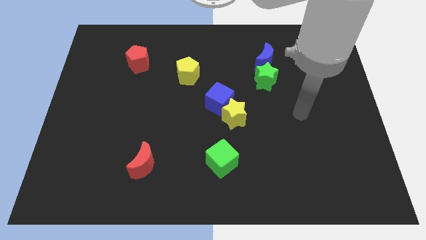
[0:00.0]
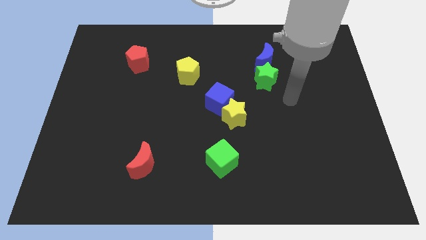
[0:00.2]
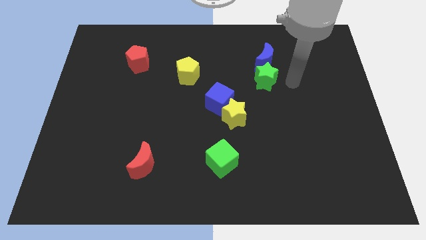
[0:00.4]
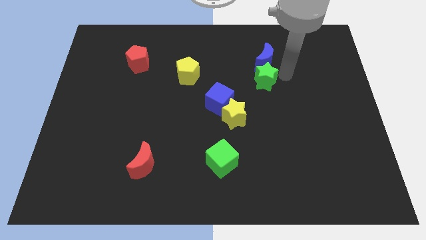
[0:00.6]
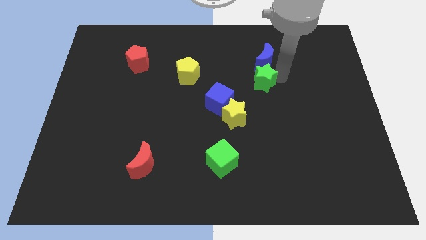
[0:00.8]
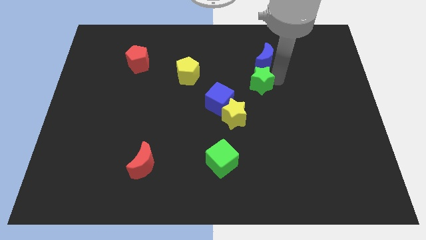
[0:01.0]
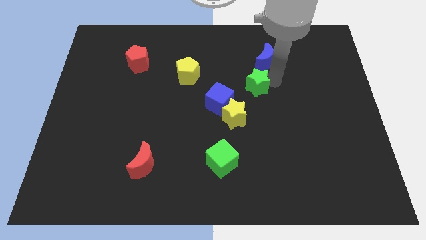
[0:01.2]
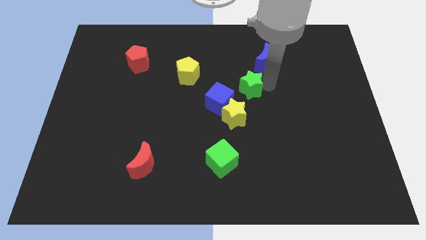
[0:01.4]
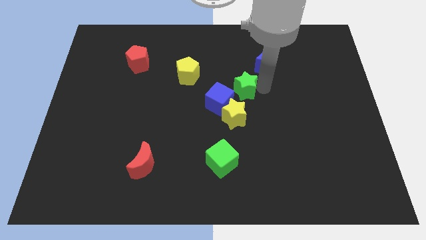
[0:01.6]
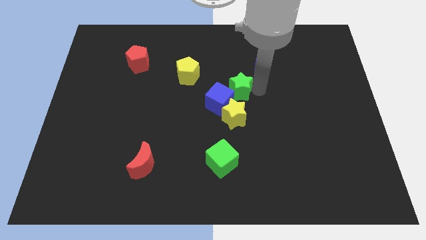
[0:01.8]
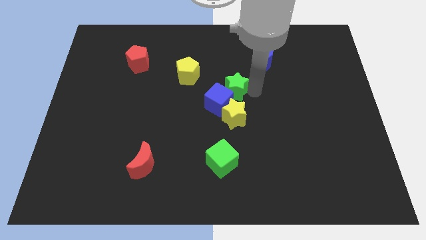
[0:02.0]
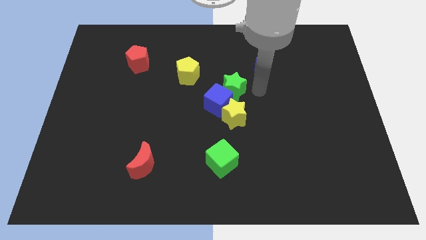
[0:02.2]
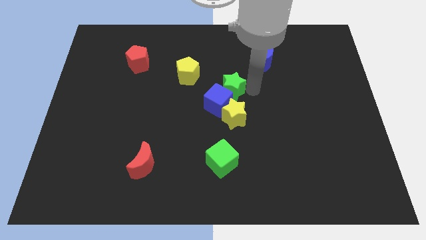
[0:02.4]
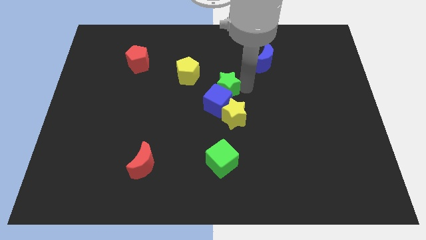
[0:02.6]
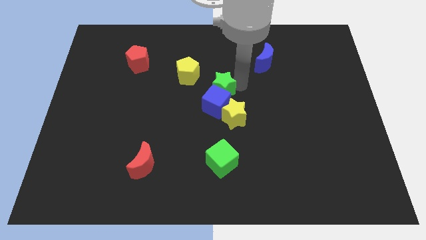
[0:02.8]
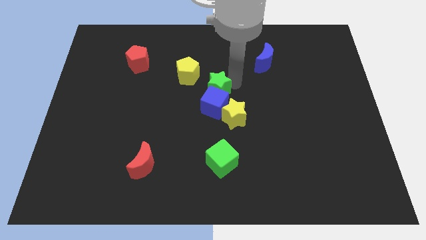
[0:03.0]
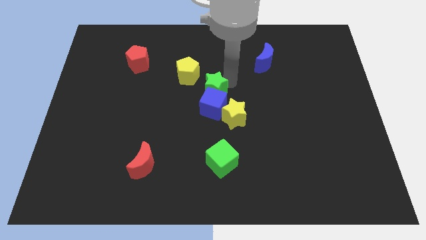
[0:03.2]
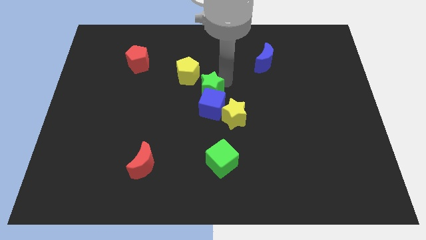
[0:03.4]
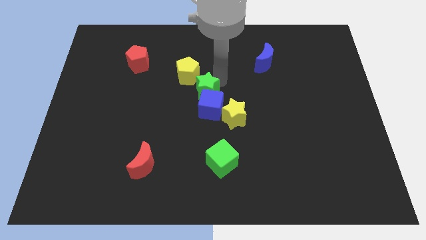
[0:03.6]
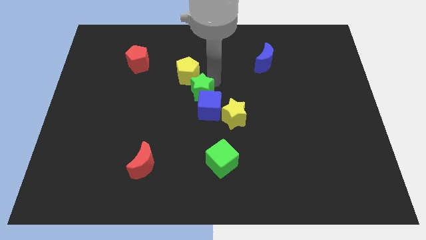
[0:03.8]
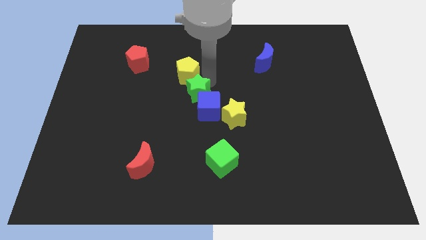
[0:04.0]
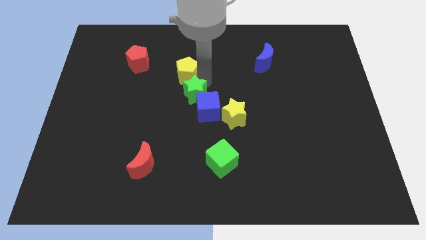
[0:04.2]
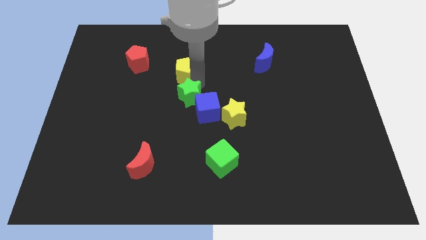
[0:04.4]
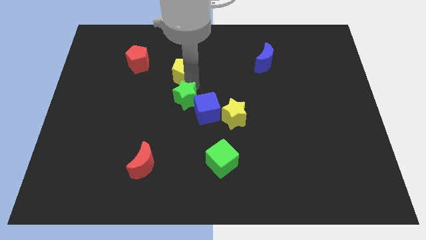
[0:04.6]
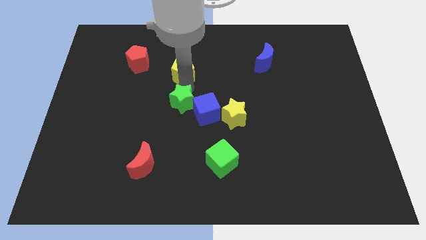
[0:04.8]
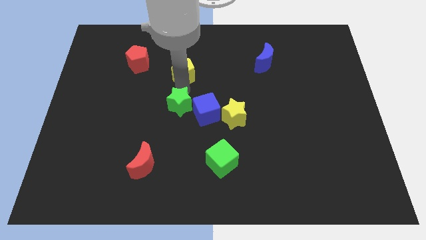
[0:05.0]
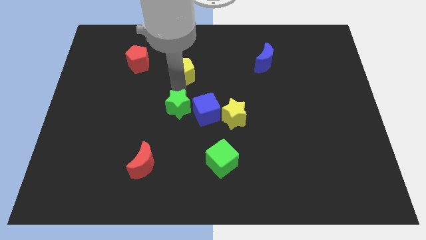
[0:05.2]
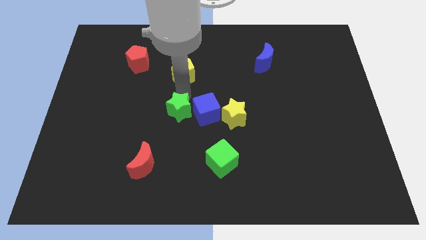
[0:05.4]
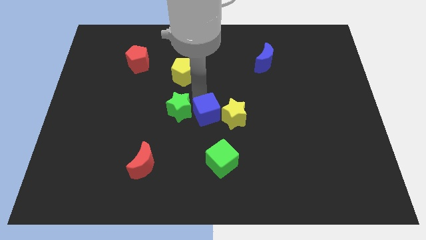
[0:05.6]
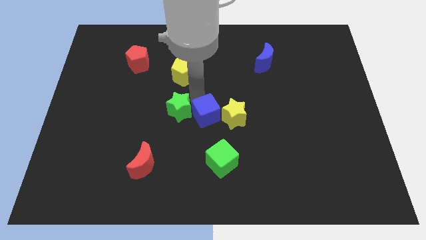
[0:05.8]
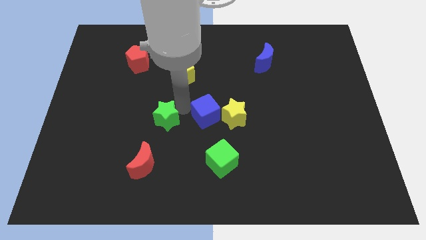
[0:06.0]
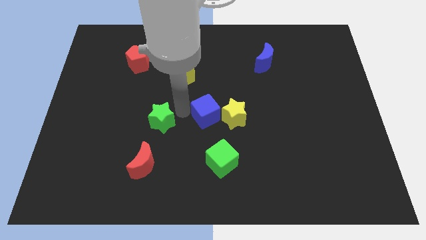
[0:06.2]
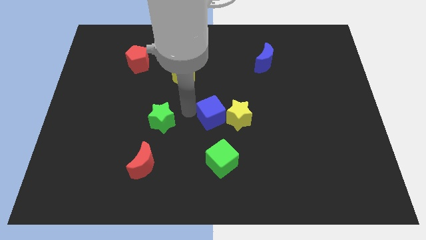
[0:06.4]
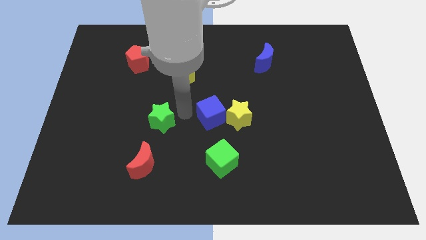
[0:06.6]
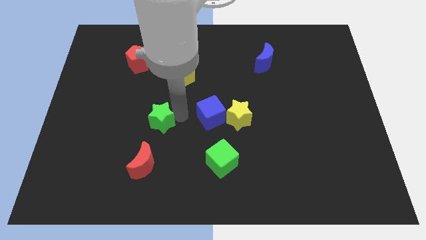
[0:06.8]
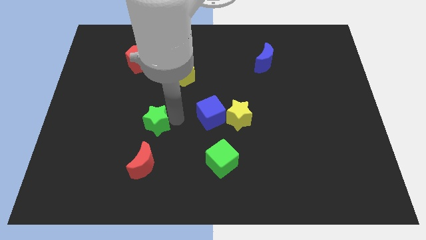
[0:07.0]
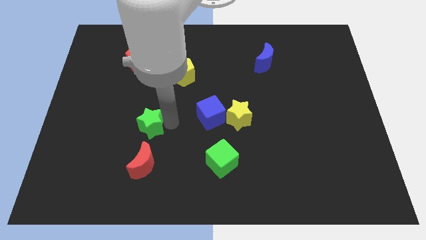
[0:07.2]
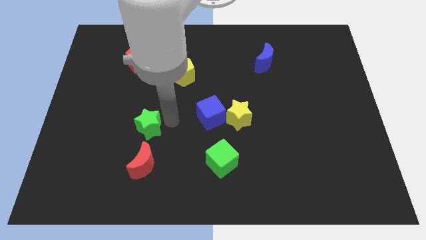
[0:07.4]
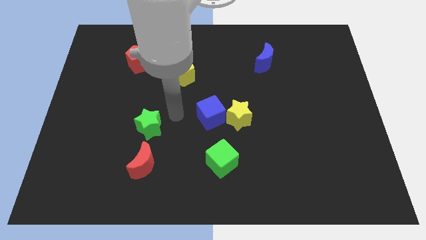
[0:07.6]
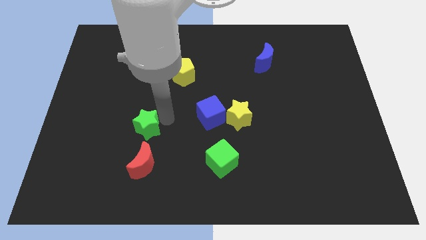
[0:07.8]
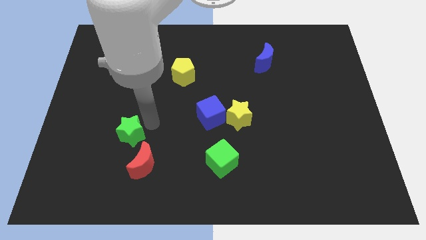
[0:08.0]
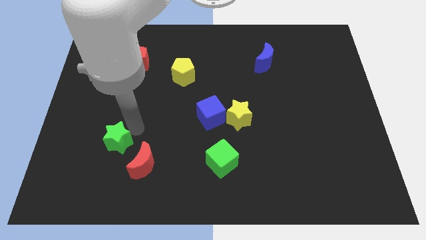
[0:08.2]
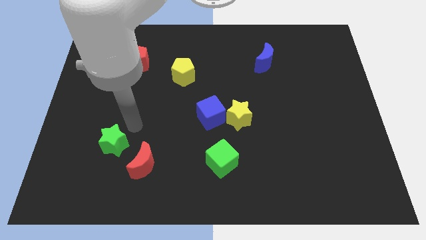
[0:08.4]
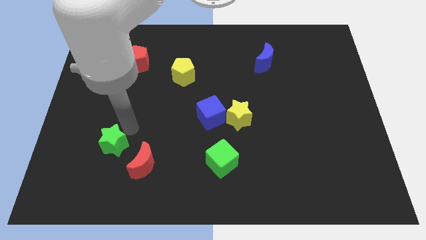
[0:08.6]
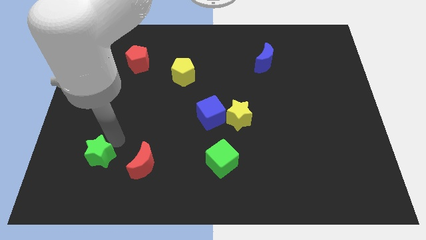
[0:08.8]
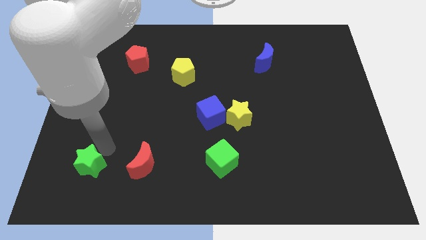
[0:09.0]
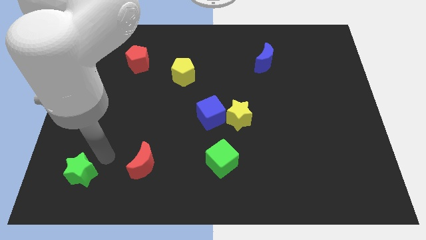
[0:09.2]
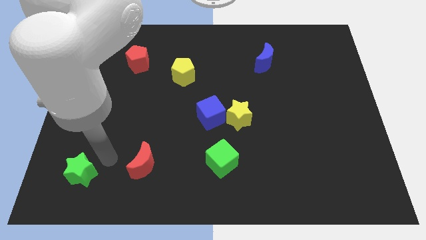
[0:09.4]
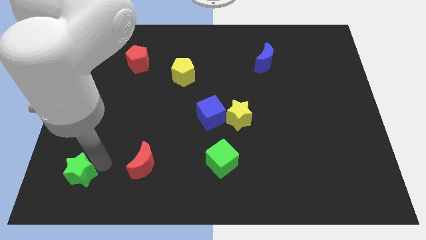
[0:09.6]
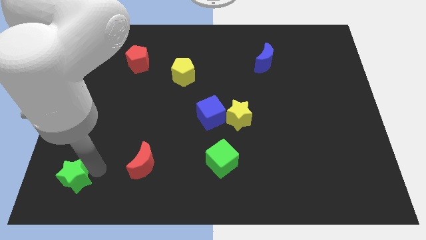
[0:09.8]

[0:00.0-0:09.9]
put the green star to the bottom left corner

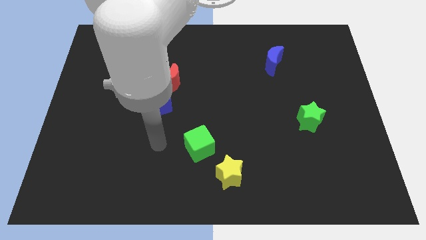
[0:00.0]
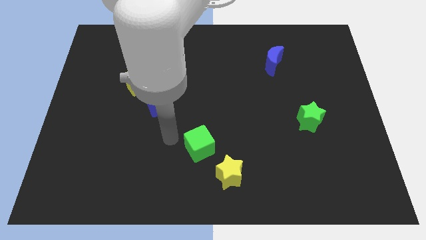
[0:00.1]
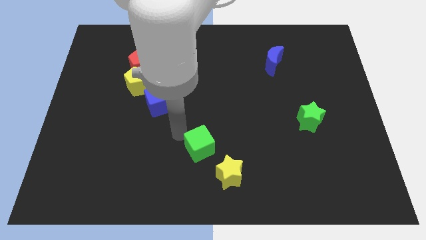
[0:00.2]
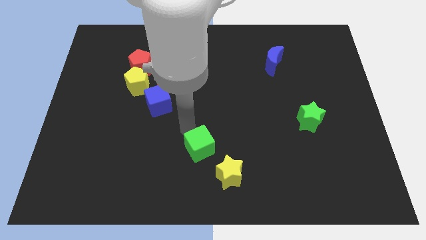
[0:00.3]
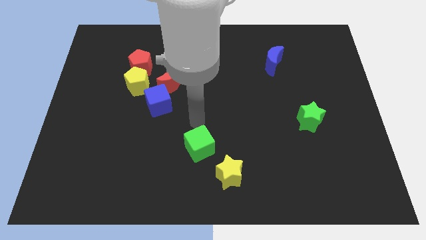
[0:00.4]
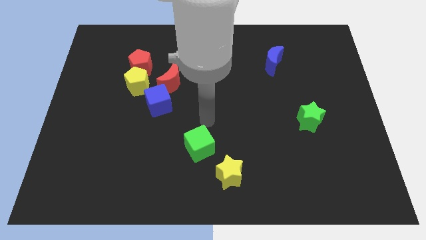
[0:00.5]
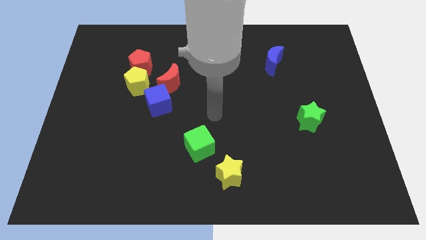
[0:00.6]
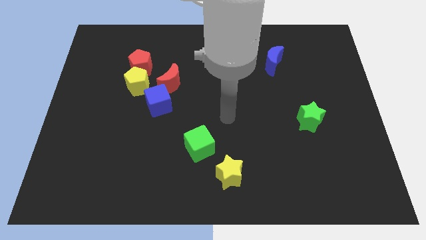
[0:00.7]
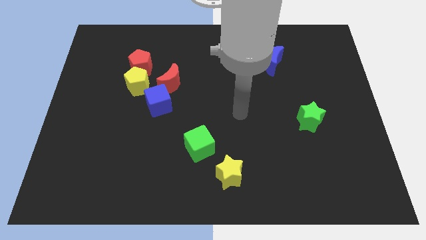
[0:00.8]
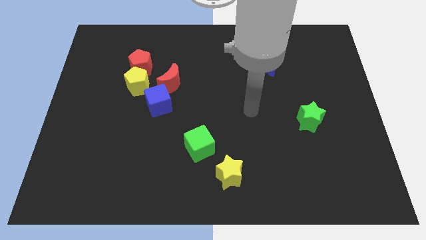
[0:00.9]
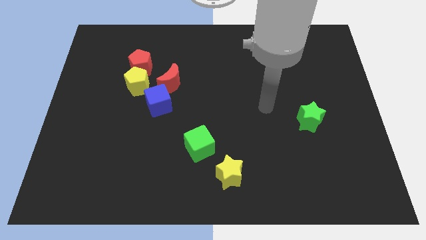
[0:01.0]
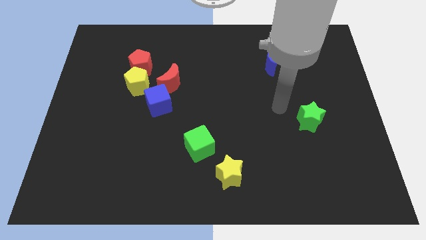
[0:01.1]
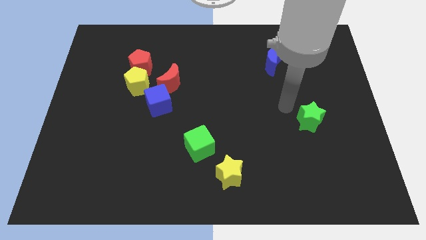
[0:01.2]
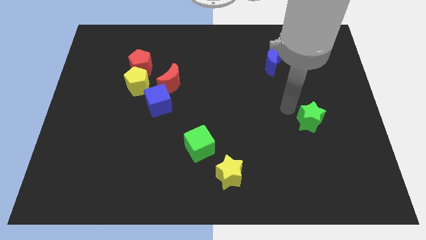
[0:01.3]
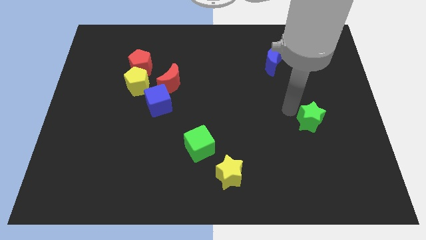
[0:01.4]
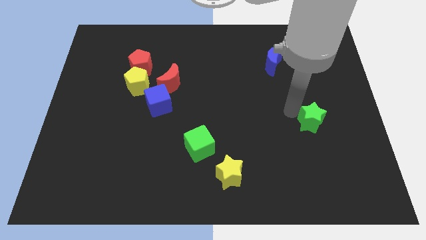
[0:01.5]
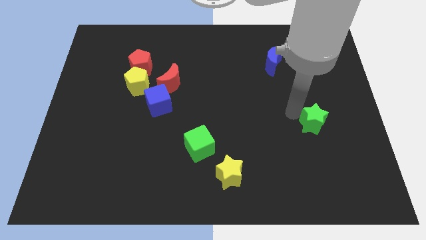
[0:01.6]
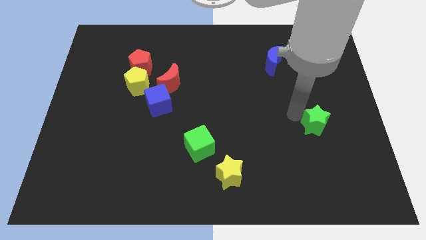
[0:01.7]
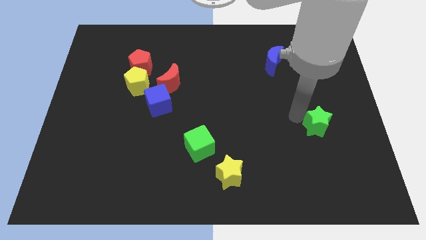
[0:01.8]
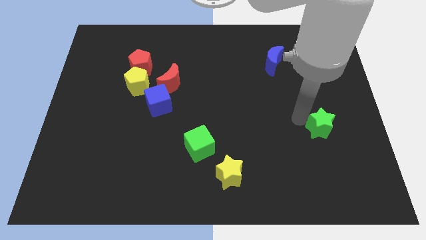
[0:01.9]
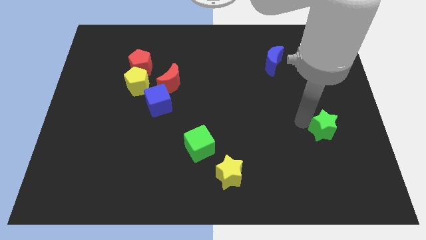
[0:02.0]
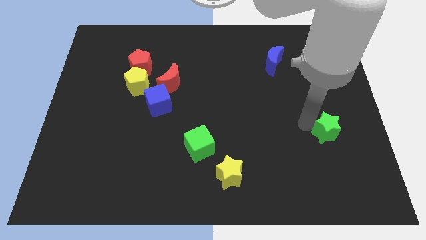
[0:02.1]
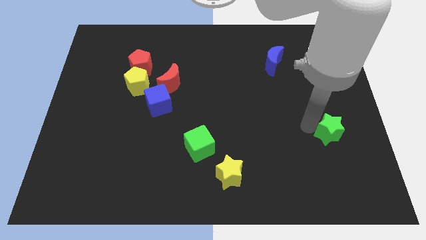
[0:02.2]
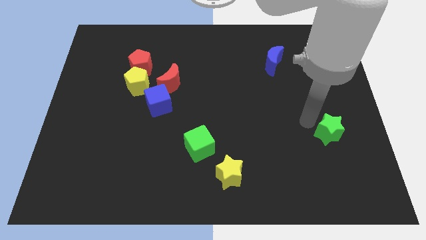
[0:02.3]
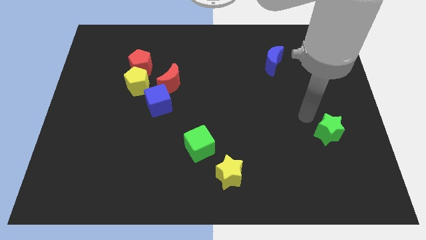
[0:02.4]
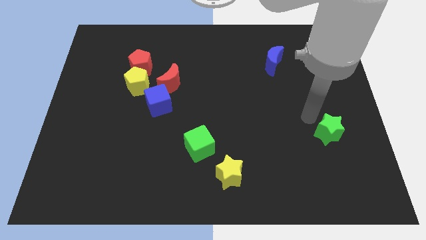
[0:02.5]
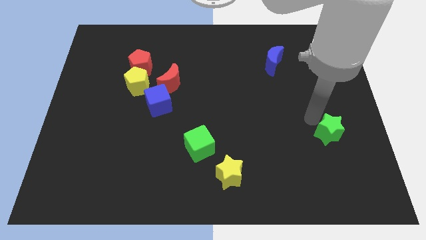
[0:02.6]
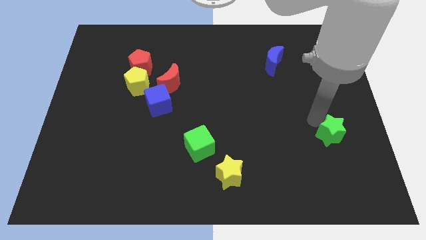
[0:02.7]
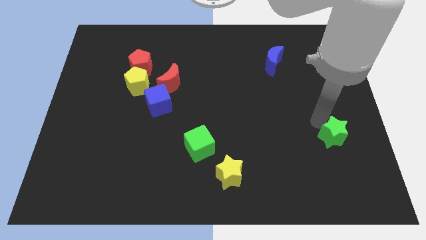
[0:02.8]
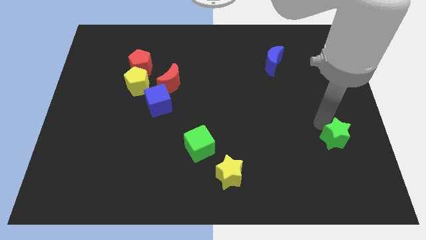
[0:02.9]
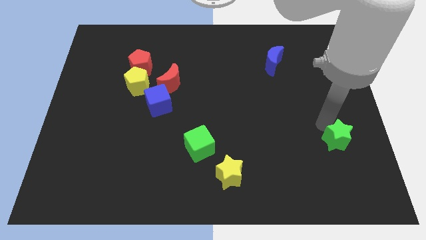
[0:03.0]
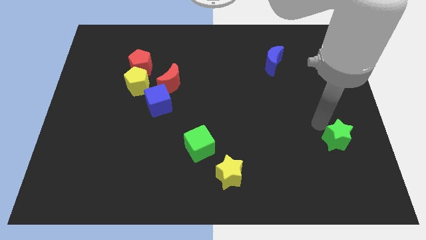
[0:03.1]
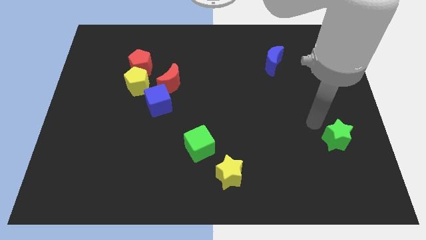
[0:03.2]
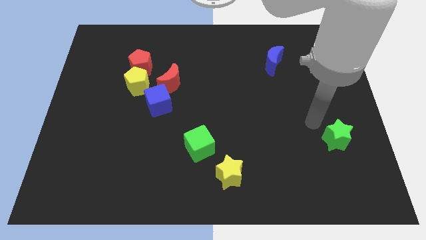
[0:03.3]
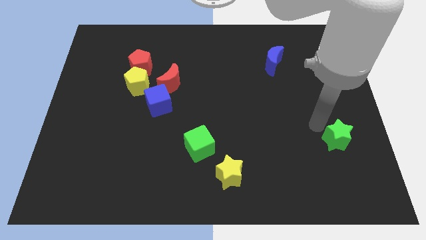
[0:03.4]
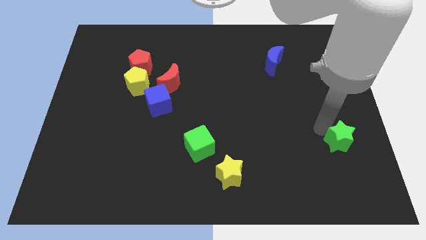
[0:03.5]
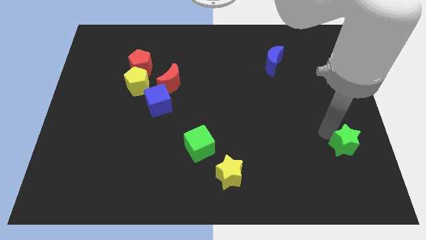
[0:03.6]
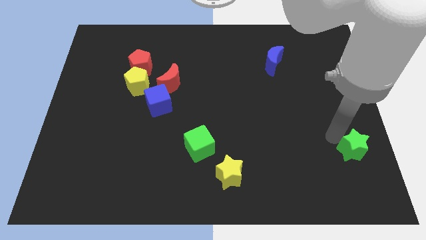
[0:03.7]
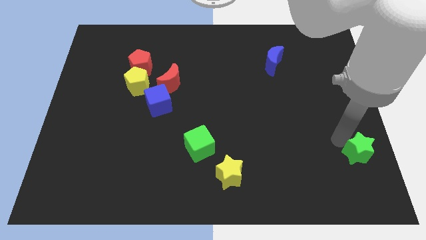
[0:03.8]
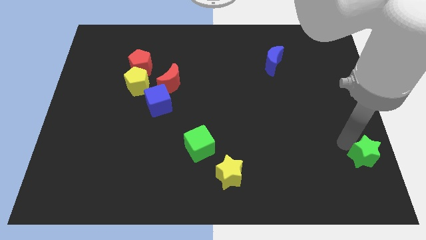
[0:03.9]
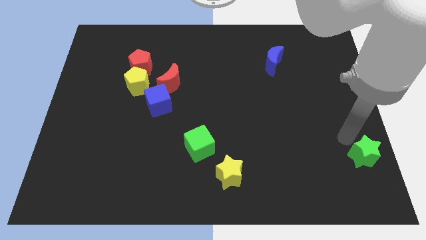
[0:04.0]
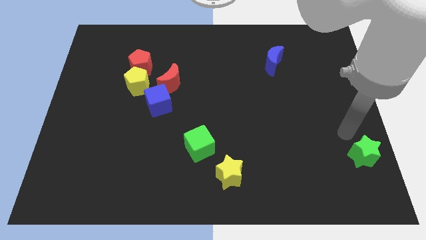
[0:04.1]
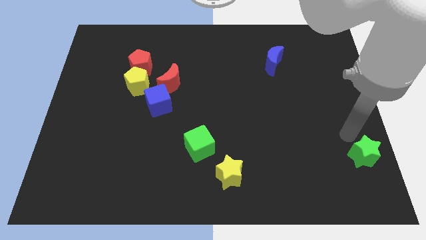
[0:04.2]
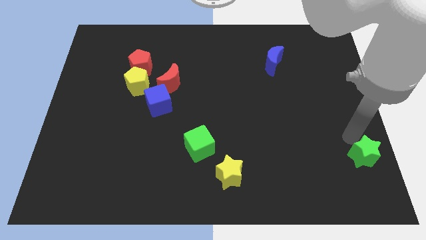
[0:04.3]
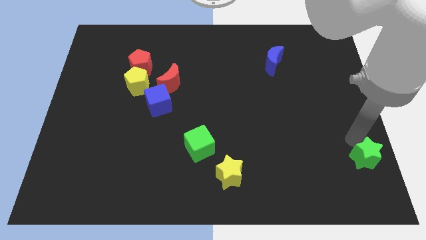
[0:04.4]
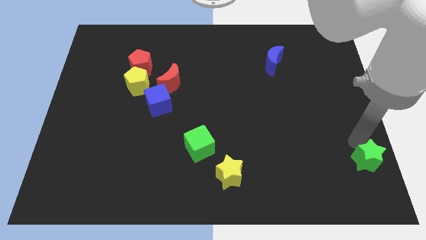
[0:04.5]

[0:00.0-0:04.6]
slide the green star to the bottom right corner
